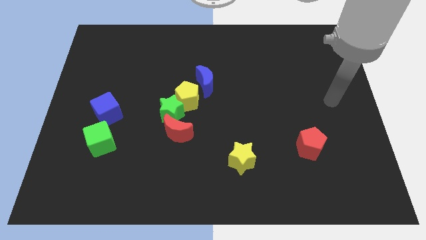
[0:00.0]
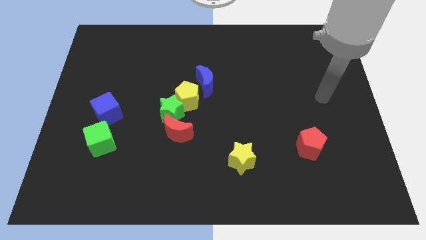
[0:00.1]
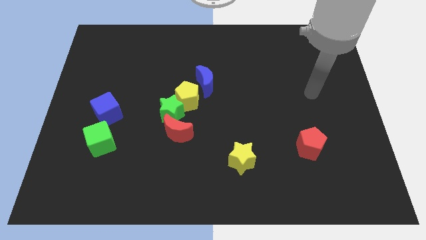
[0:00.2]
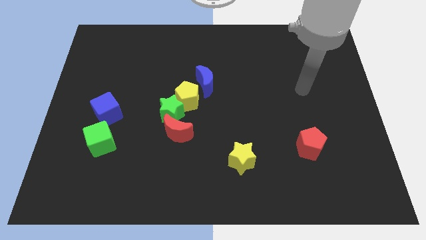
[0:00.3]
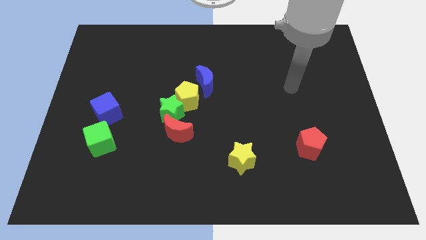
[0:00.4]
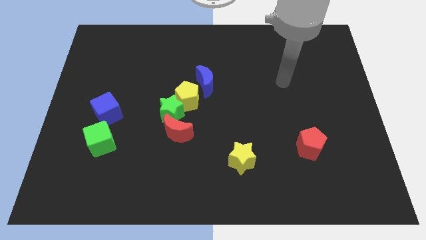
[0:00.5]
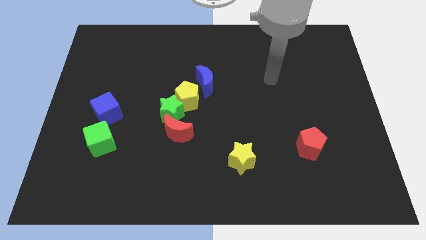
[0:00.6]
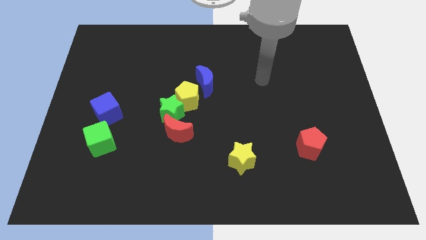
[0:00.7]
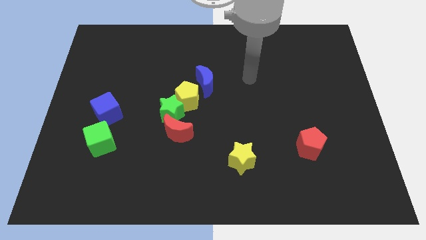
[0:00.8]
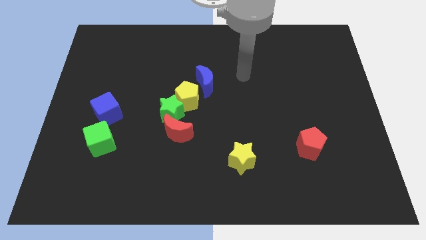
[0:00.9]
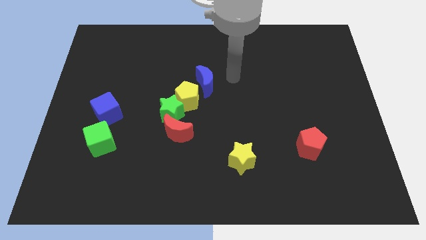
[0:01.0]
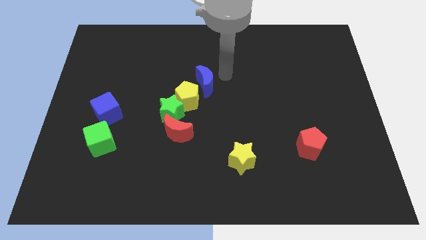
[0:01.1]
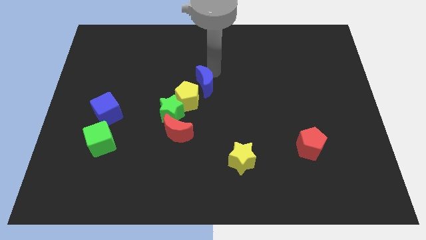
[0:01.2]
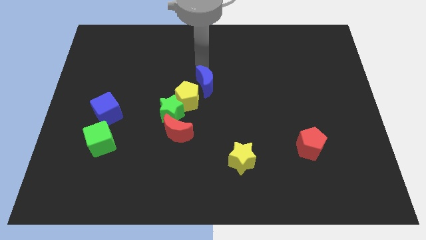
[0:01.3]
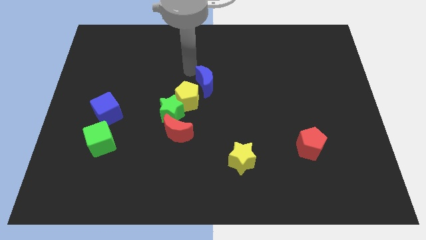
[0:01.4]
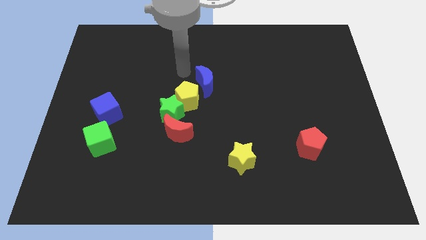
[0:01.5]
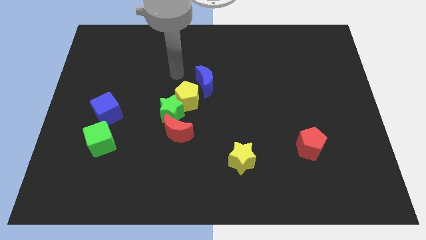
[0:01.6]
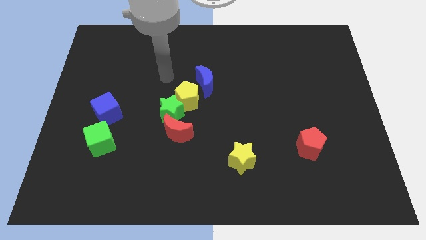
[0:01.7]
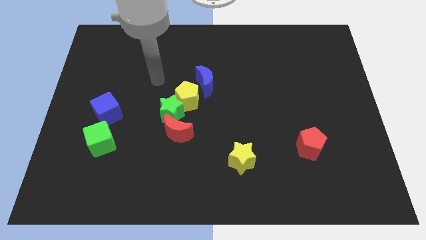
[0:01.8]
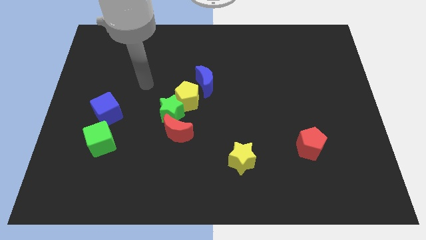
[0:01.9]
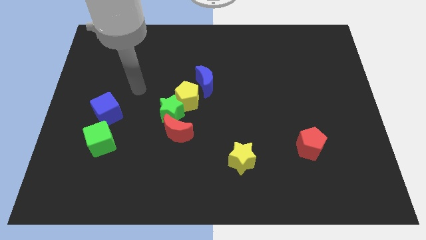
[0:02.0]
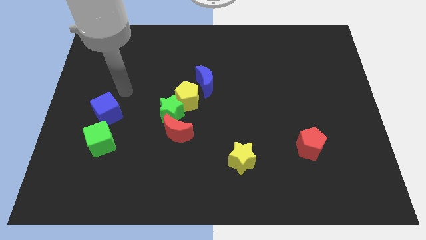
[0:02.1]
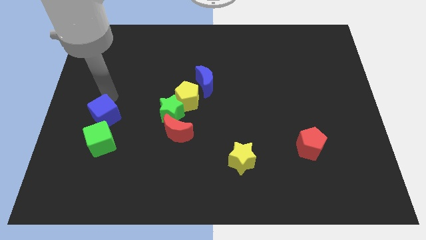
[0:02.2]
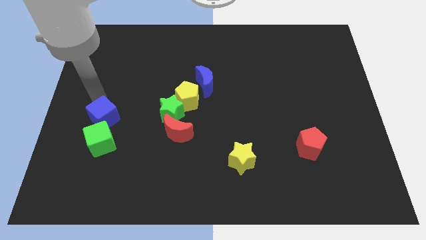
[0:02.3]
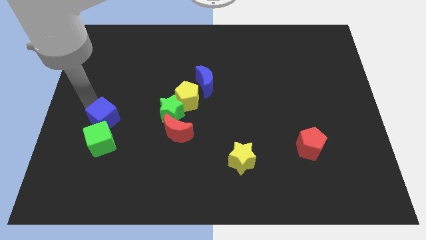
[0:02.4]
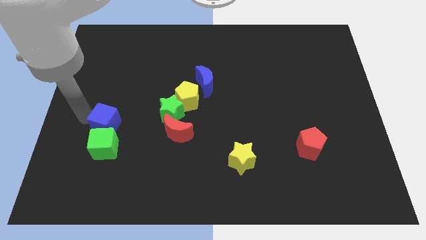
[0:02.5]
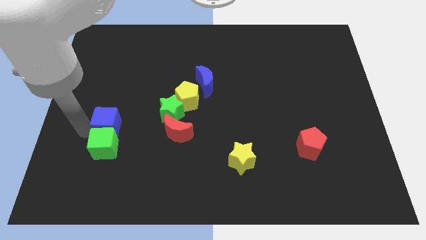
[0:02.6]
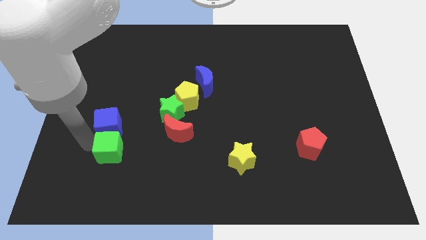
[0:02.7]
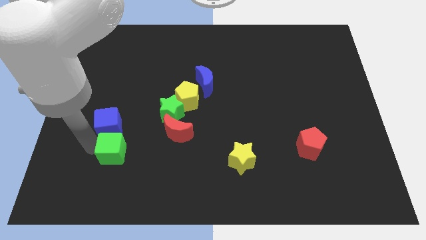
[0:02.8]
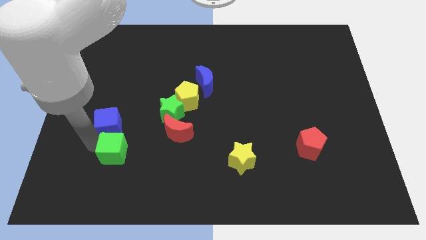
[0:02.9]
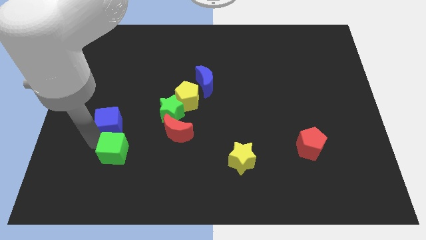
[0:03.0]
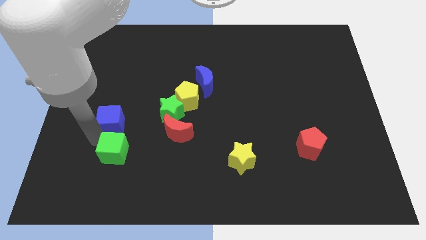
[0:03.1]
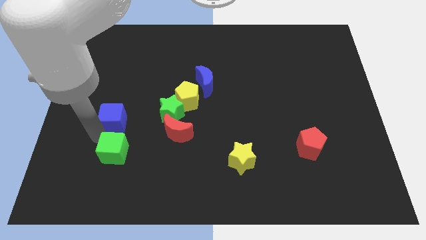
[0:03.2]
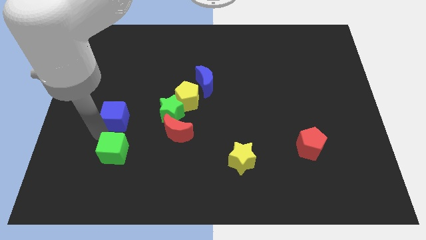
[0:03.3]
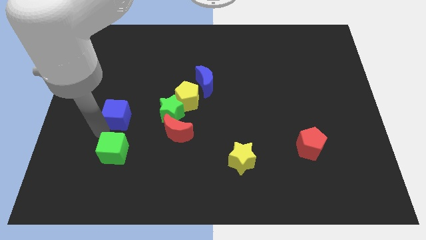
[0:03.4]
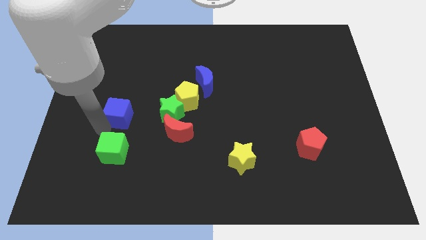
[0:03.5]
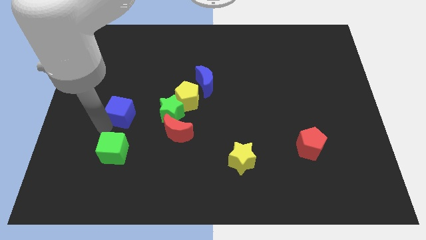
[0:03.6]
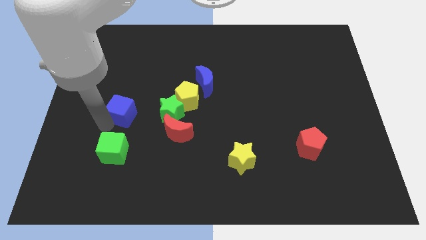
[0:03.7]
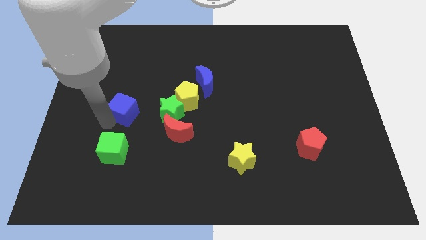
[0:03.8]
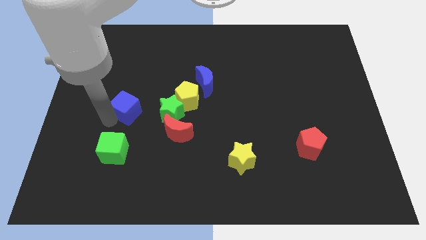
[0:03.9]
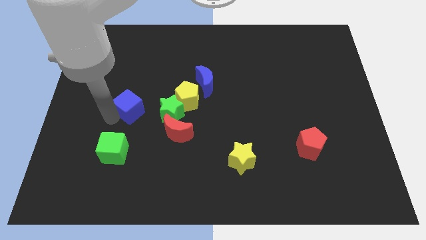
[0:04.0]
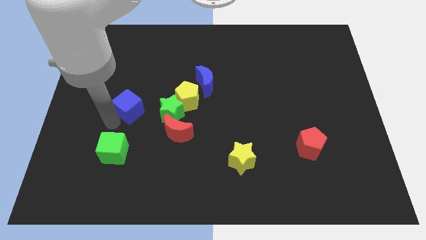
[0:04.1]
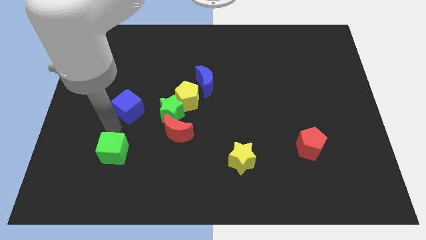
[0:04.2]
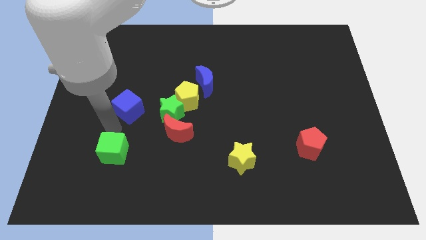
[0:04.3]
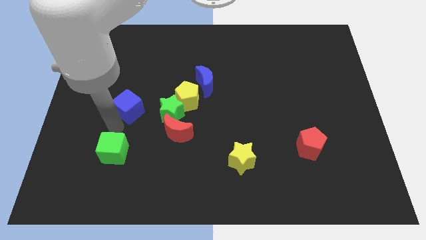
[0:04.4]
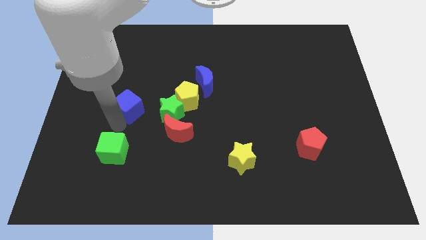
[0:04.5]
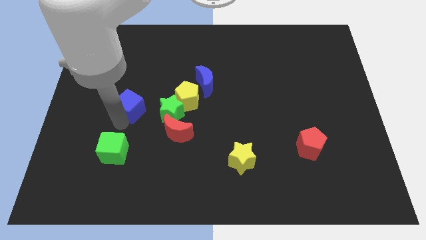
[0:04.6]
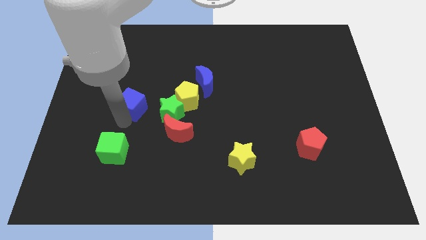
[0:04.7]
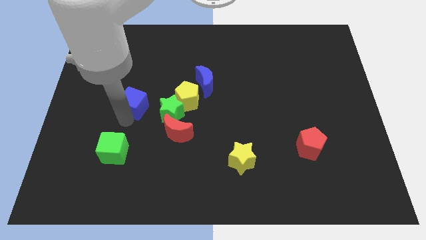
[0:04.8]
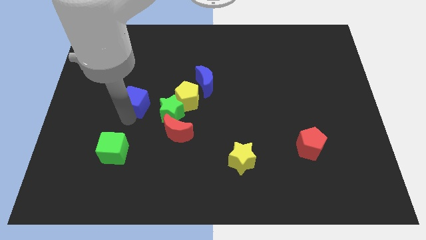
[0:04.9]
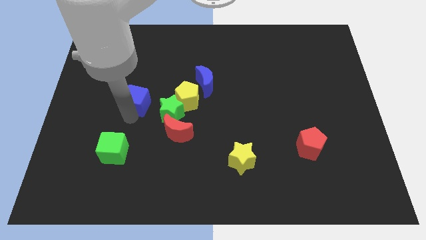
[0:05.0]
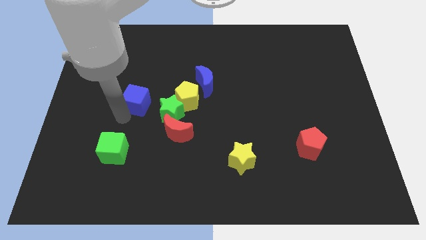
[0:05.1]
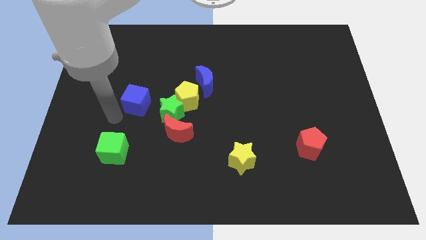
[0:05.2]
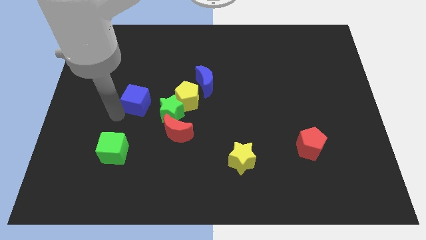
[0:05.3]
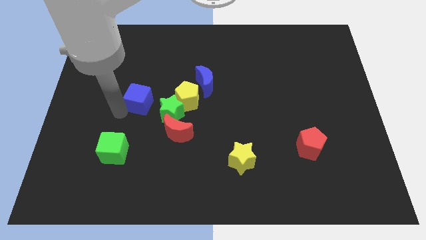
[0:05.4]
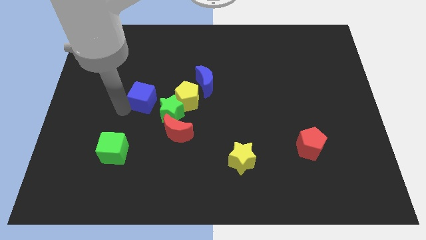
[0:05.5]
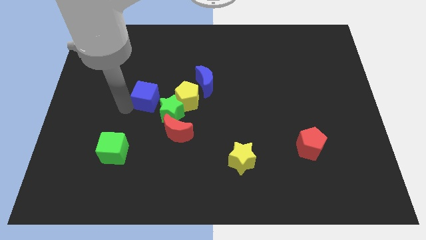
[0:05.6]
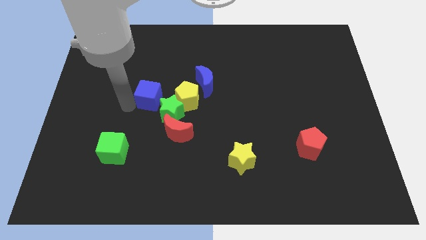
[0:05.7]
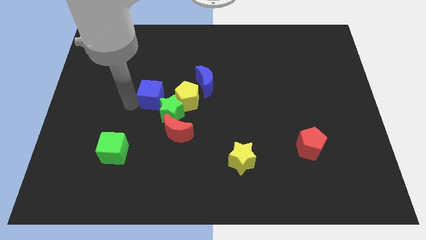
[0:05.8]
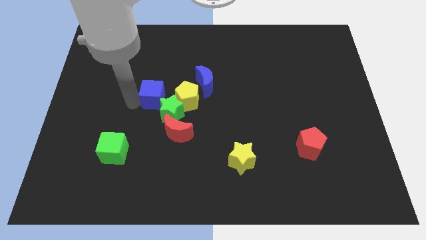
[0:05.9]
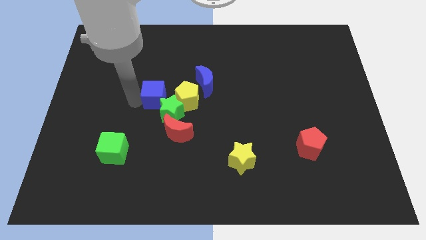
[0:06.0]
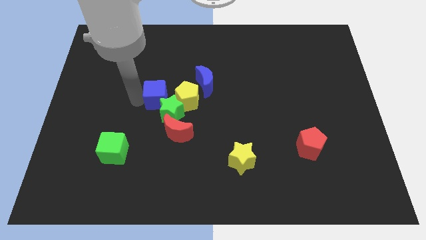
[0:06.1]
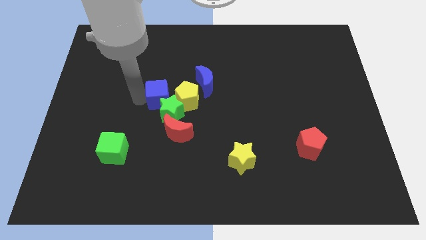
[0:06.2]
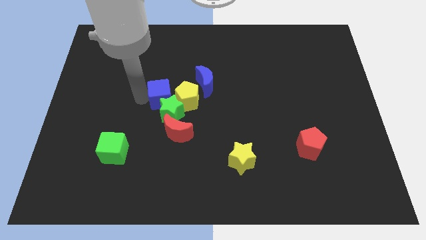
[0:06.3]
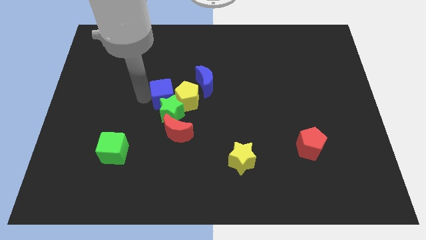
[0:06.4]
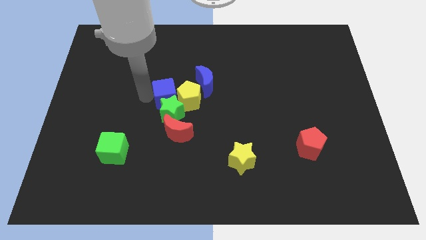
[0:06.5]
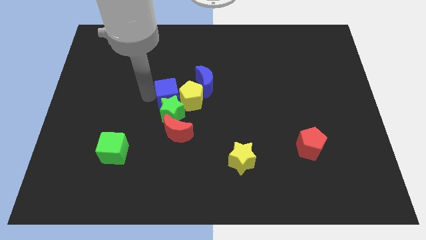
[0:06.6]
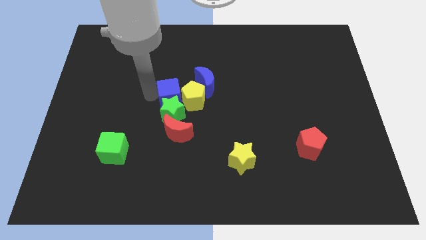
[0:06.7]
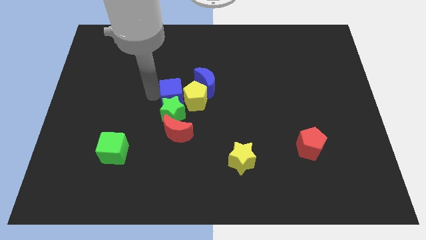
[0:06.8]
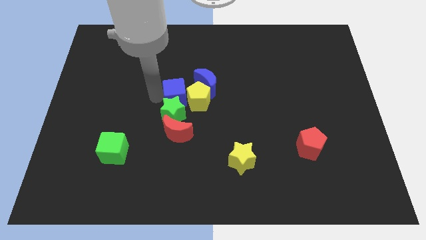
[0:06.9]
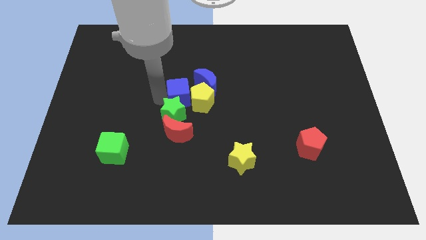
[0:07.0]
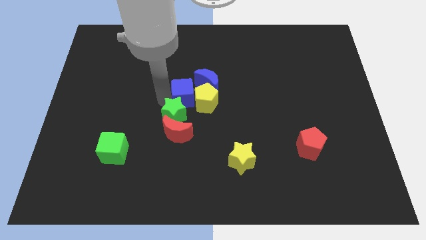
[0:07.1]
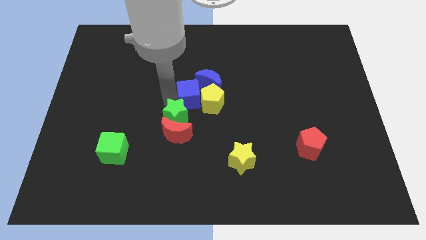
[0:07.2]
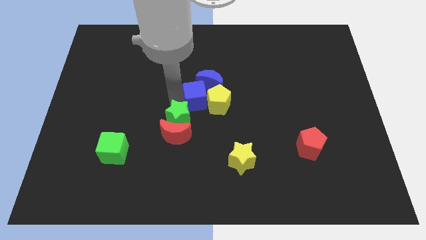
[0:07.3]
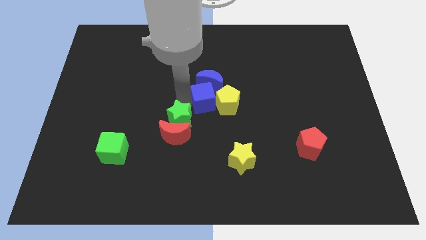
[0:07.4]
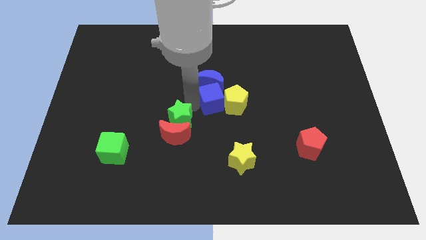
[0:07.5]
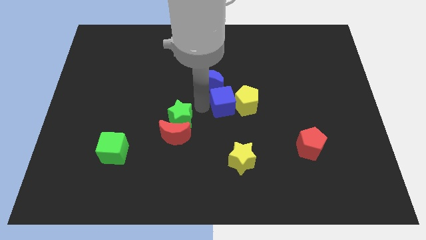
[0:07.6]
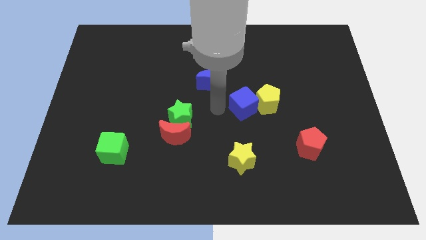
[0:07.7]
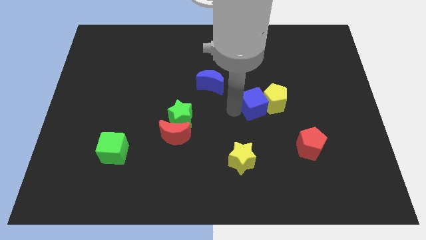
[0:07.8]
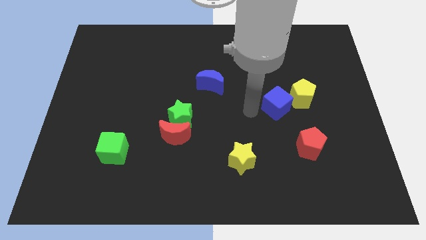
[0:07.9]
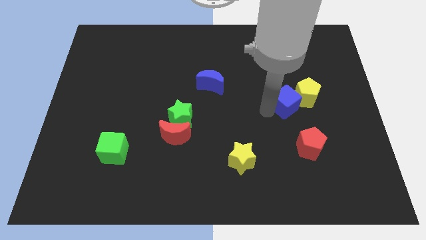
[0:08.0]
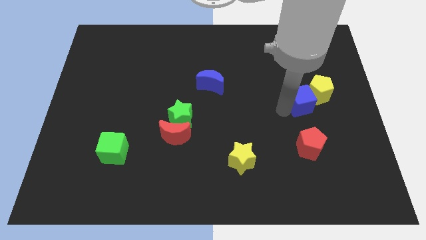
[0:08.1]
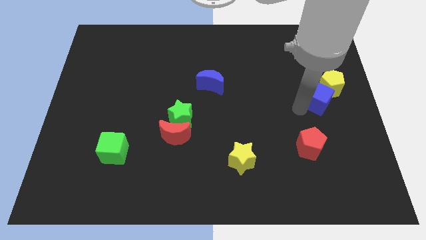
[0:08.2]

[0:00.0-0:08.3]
move the blue cube to the right side of the board
